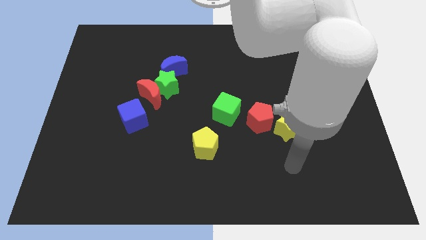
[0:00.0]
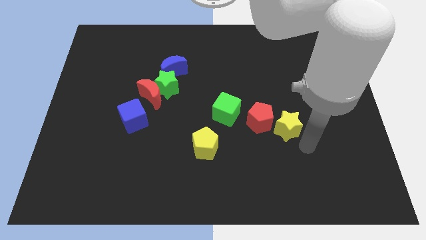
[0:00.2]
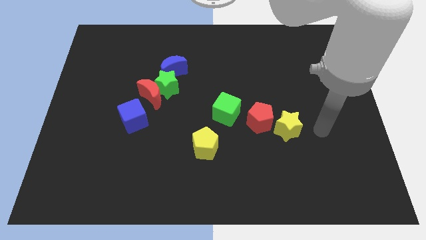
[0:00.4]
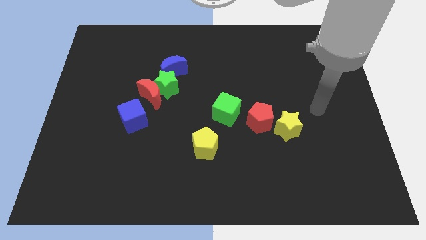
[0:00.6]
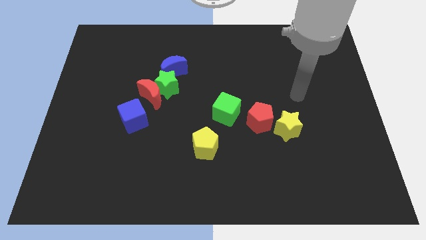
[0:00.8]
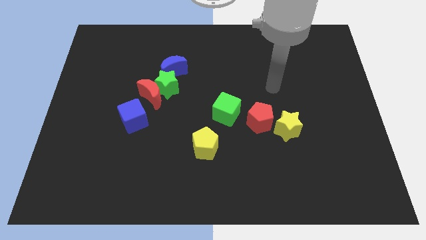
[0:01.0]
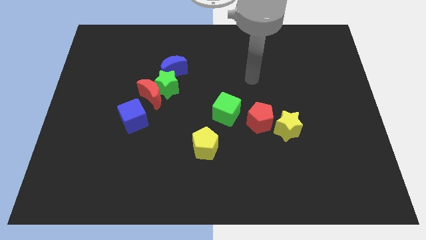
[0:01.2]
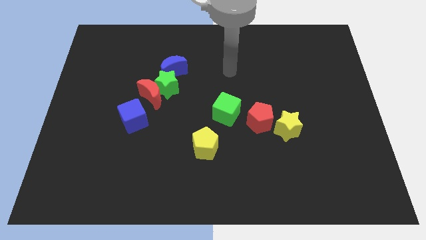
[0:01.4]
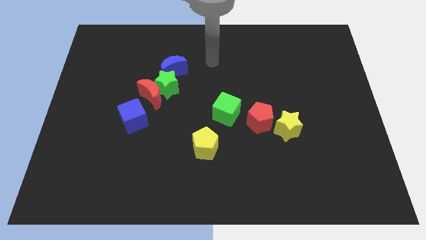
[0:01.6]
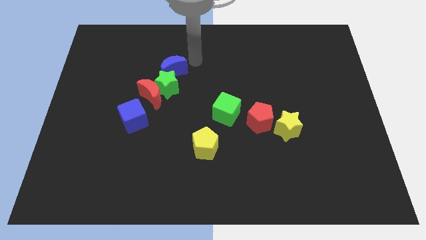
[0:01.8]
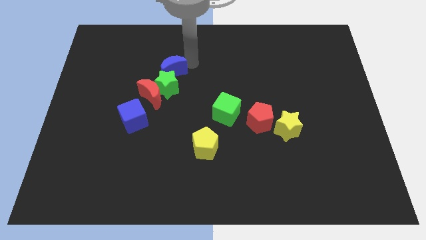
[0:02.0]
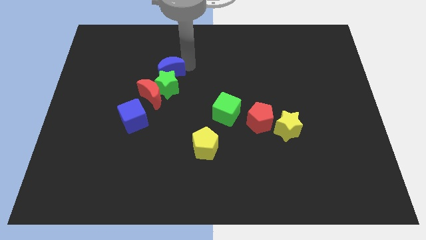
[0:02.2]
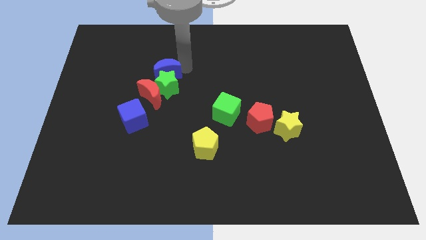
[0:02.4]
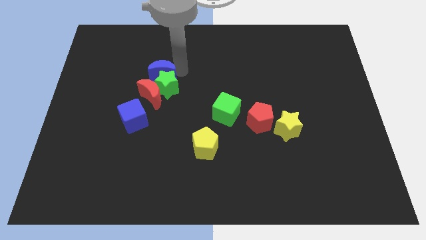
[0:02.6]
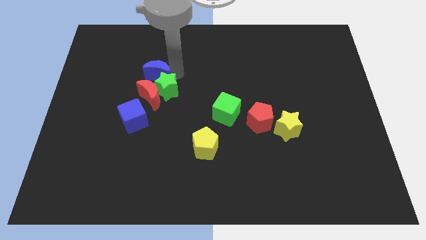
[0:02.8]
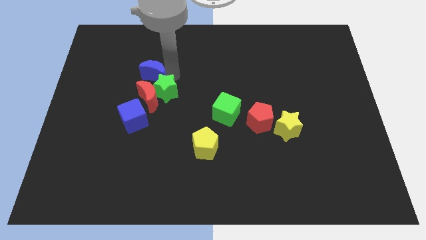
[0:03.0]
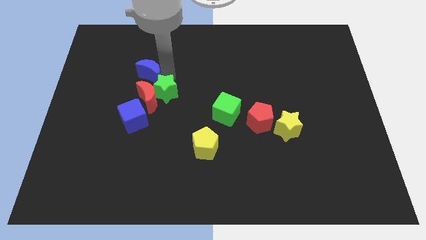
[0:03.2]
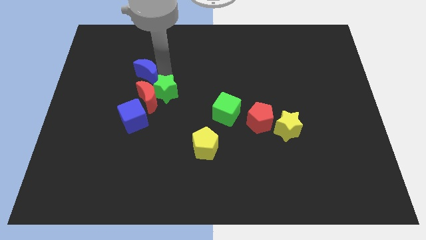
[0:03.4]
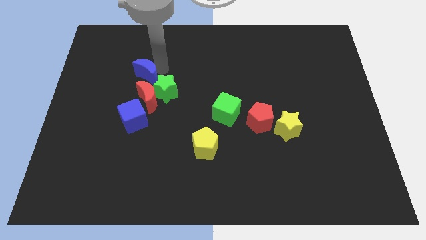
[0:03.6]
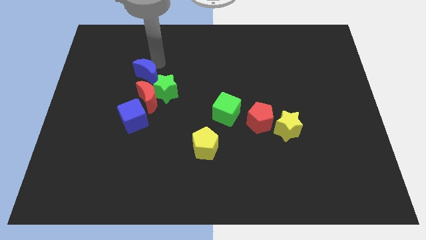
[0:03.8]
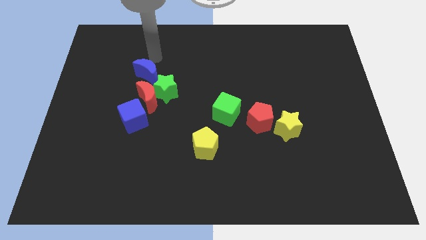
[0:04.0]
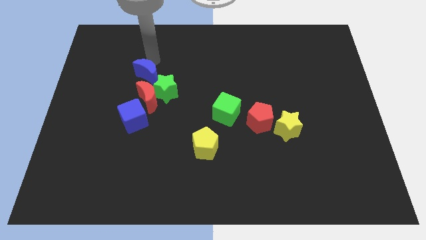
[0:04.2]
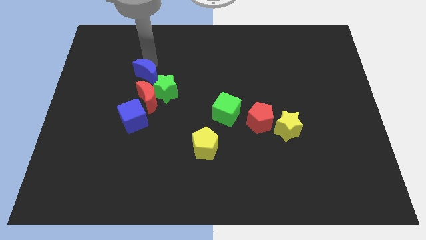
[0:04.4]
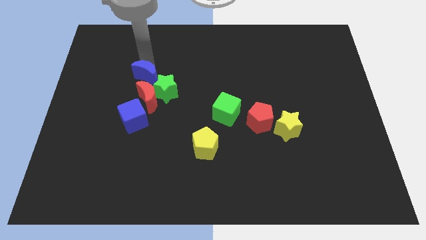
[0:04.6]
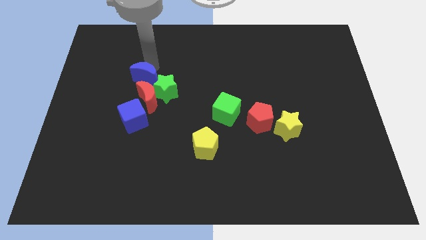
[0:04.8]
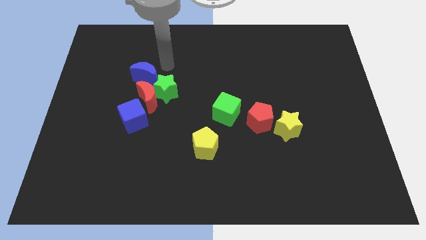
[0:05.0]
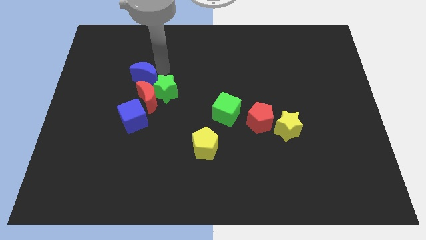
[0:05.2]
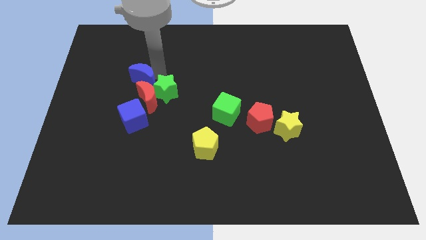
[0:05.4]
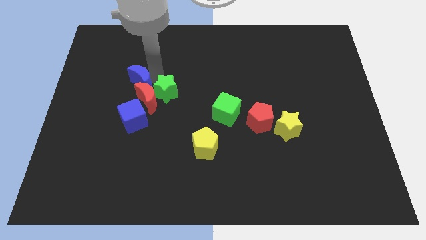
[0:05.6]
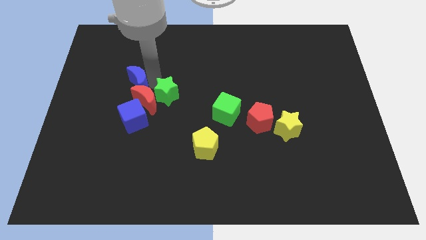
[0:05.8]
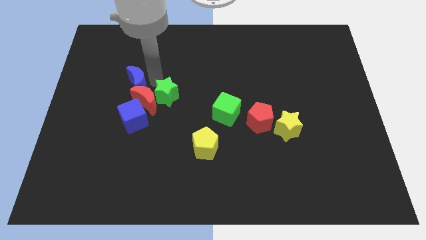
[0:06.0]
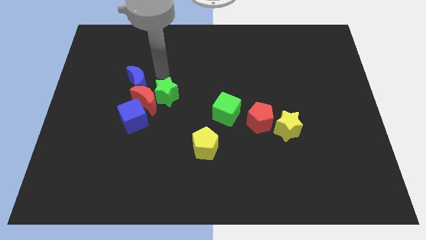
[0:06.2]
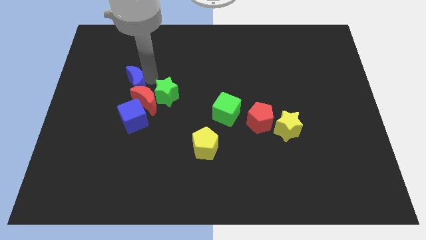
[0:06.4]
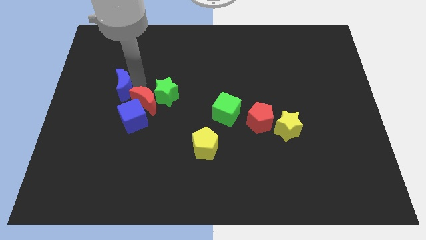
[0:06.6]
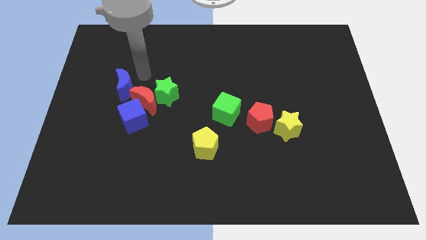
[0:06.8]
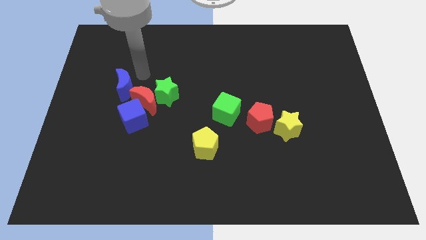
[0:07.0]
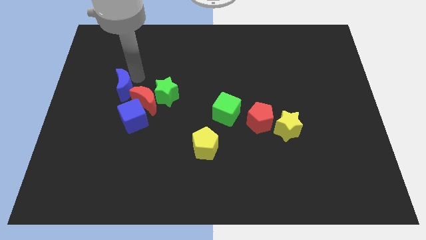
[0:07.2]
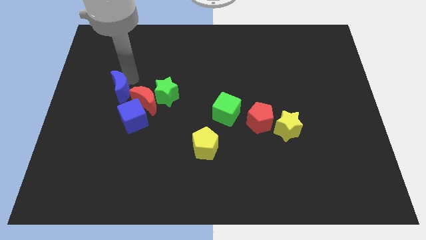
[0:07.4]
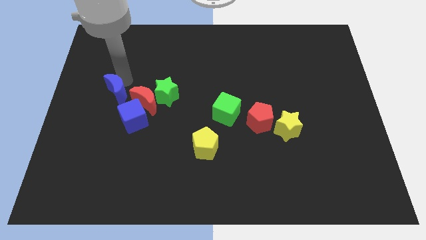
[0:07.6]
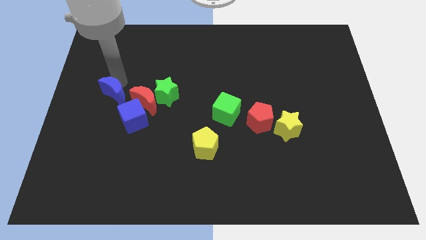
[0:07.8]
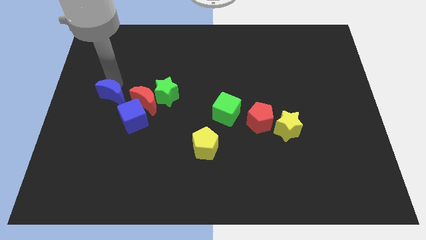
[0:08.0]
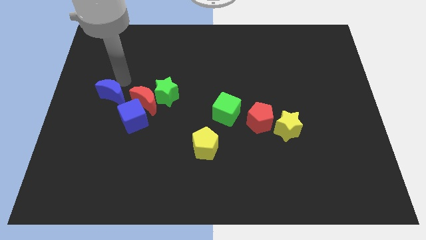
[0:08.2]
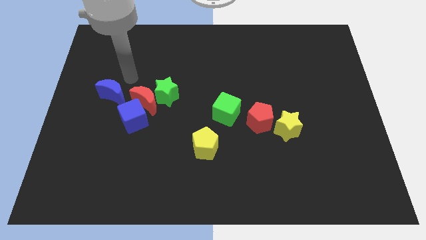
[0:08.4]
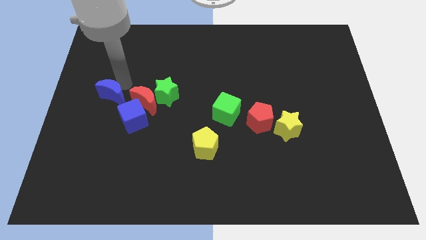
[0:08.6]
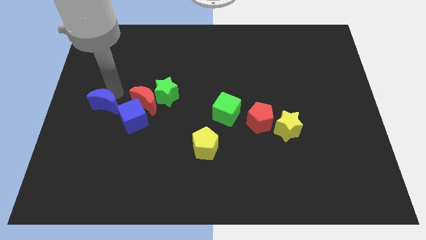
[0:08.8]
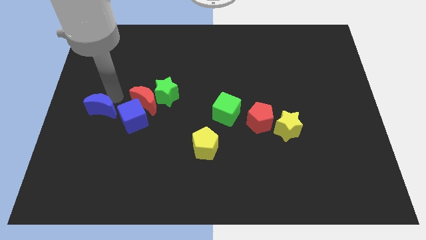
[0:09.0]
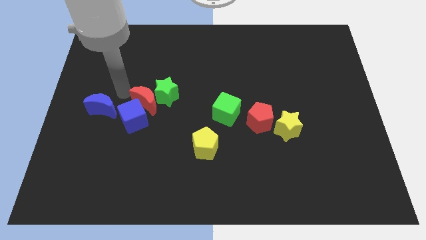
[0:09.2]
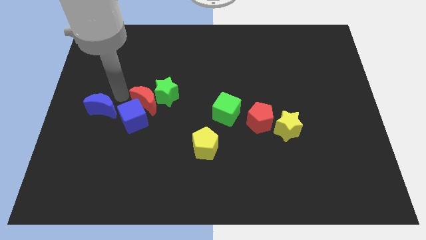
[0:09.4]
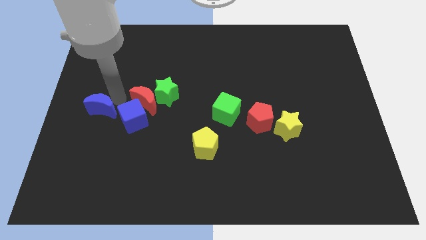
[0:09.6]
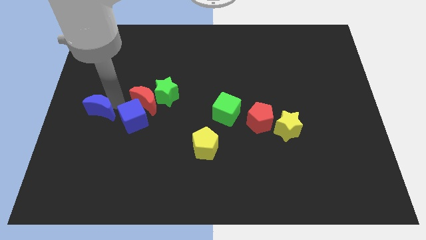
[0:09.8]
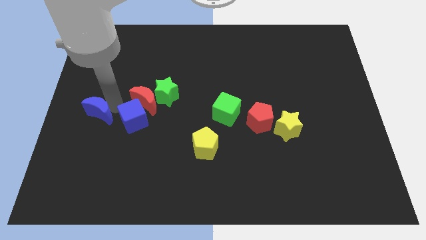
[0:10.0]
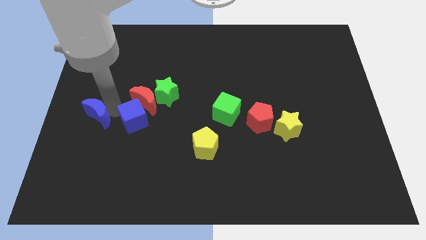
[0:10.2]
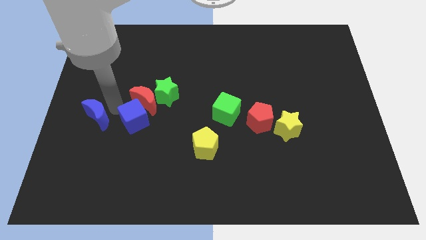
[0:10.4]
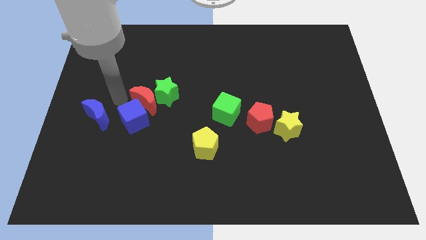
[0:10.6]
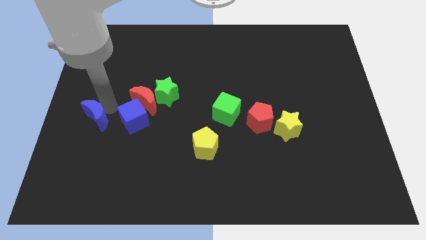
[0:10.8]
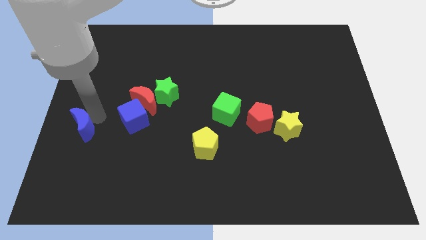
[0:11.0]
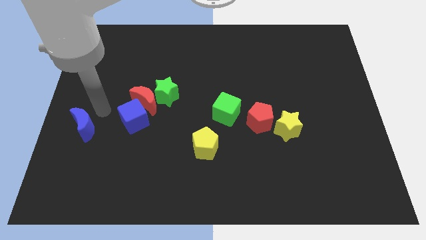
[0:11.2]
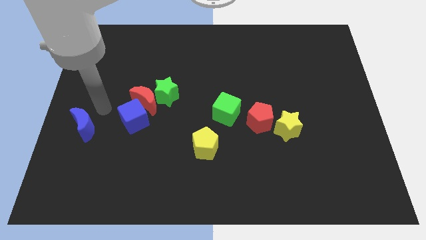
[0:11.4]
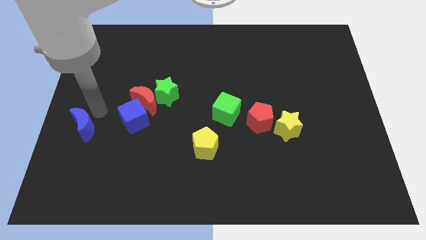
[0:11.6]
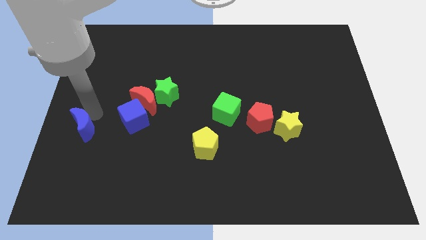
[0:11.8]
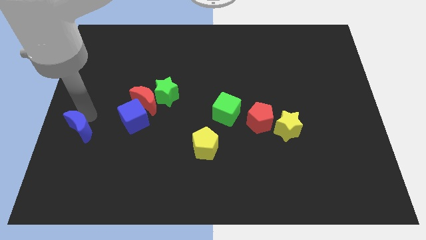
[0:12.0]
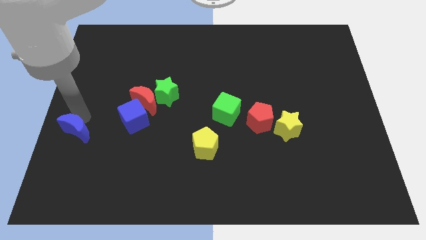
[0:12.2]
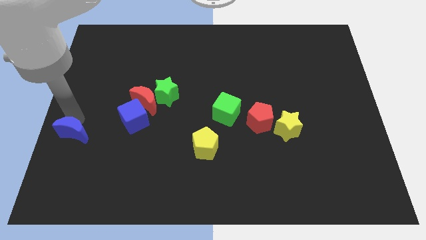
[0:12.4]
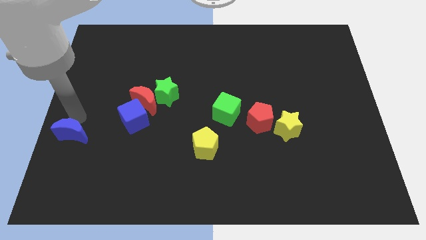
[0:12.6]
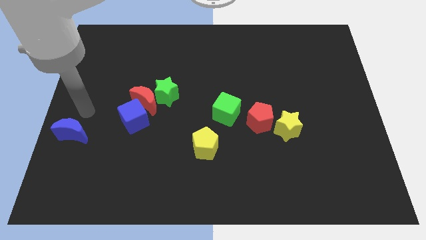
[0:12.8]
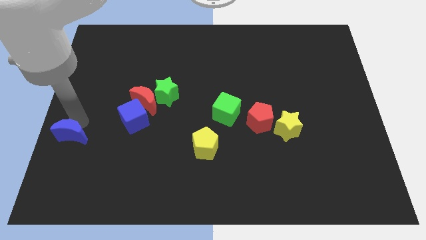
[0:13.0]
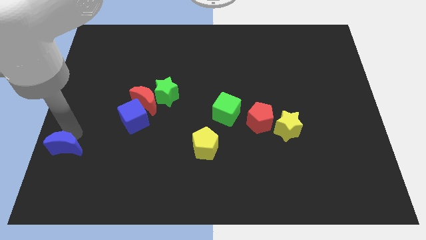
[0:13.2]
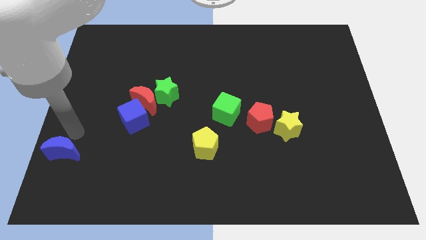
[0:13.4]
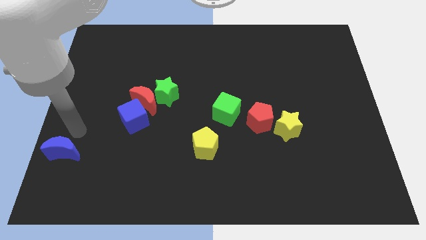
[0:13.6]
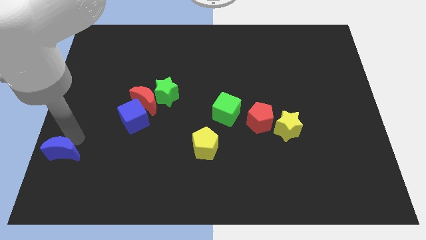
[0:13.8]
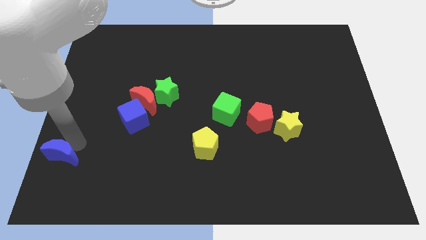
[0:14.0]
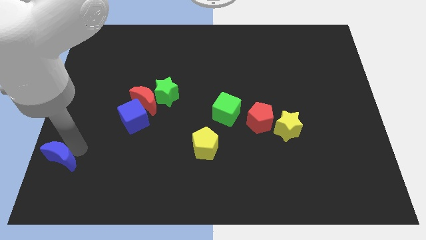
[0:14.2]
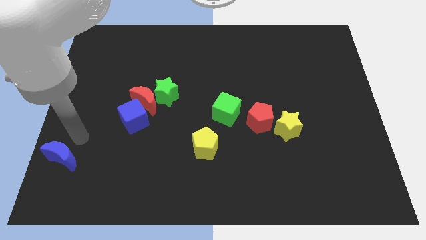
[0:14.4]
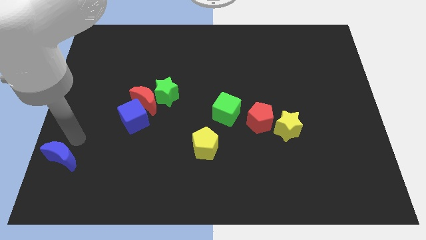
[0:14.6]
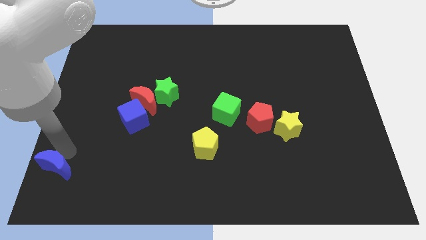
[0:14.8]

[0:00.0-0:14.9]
move the blue moon to the bottom left
